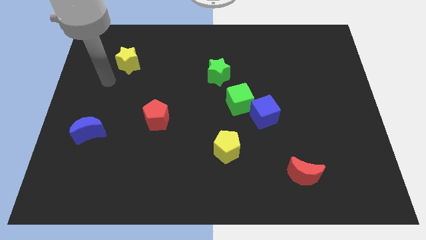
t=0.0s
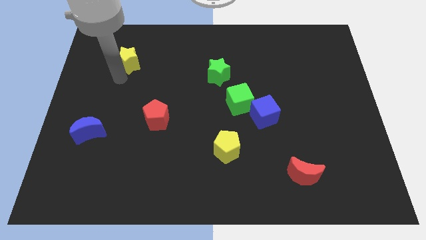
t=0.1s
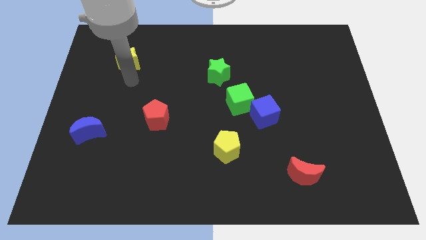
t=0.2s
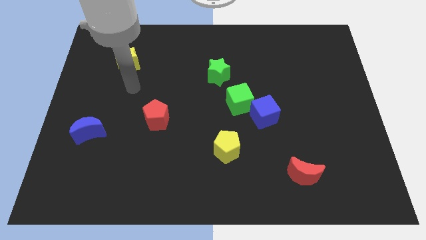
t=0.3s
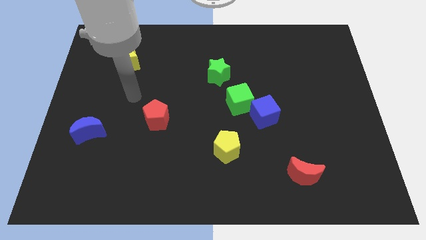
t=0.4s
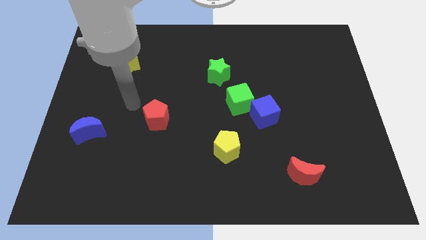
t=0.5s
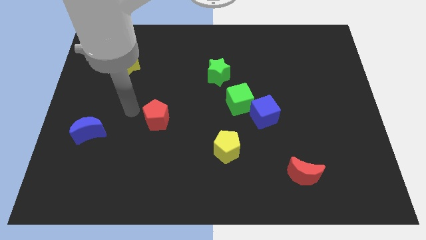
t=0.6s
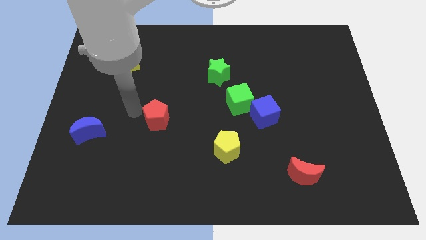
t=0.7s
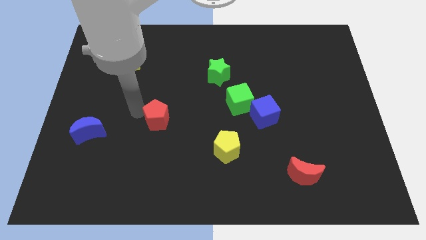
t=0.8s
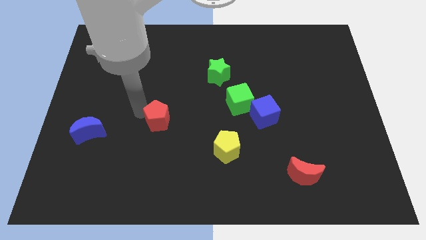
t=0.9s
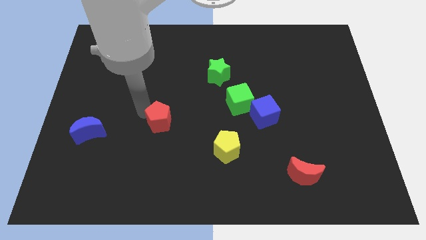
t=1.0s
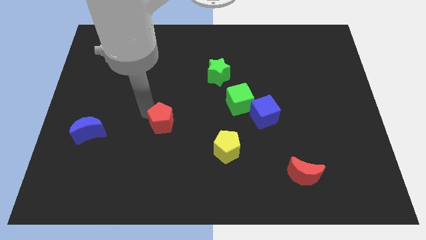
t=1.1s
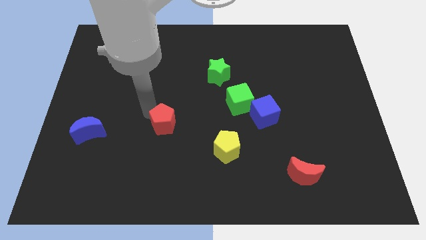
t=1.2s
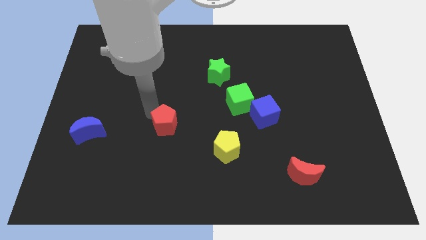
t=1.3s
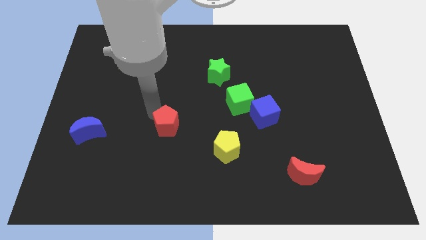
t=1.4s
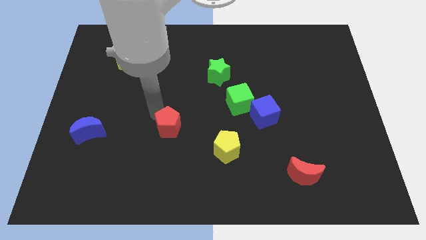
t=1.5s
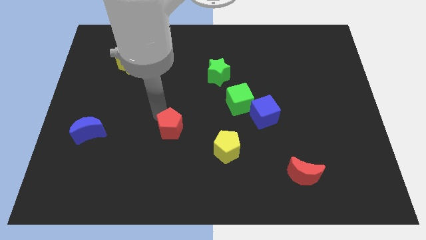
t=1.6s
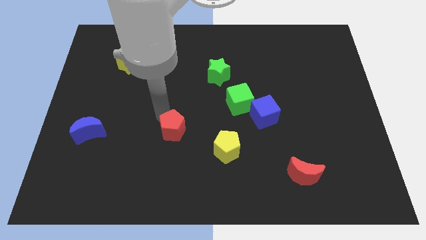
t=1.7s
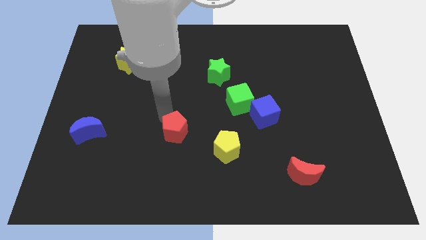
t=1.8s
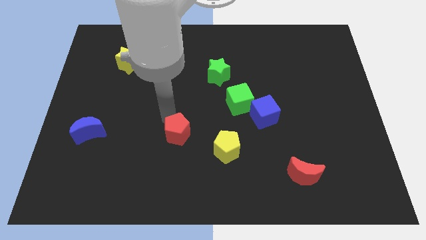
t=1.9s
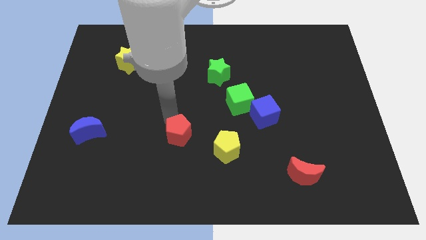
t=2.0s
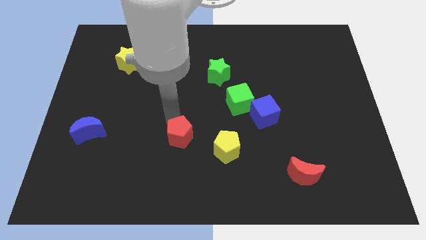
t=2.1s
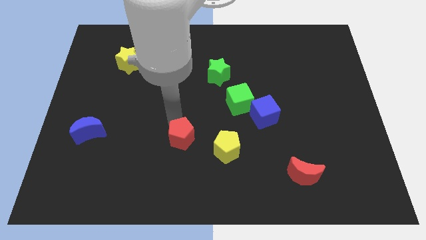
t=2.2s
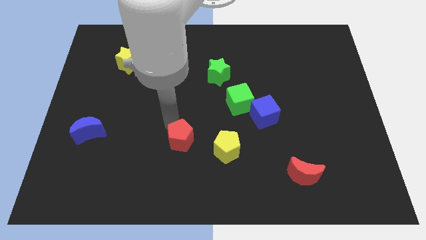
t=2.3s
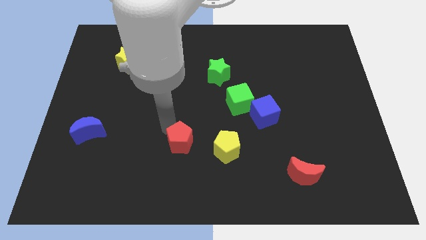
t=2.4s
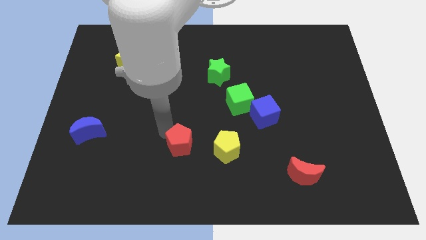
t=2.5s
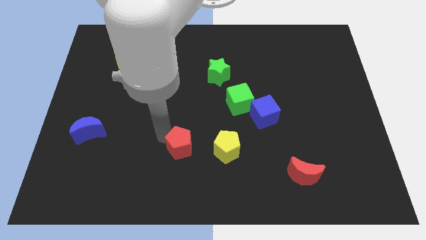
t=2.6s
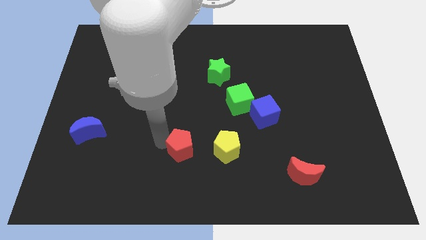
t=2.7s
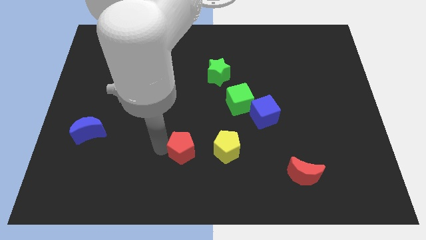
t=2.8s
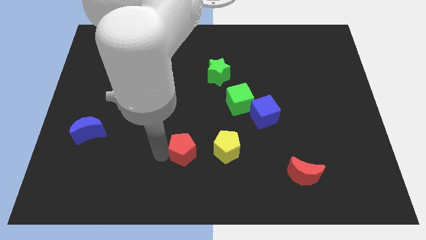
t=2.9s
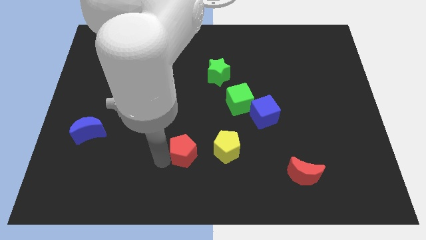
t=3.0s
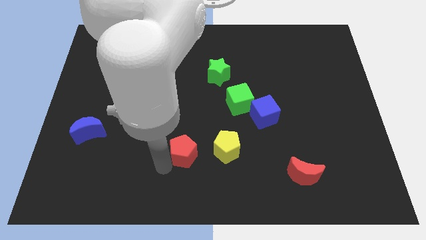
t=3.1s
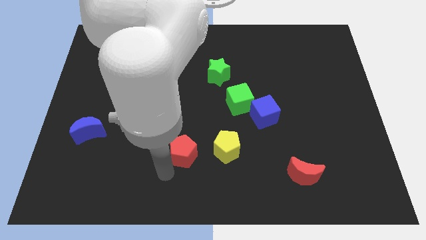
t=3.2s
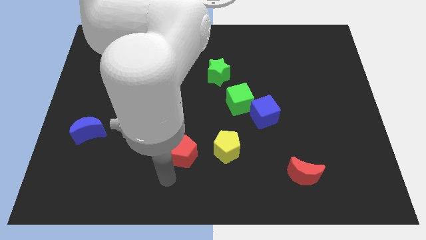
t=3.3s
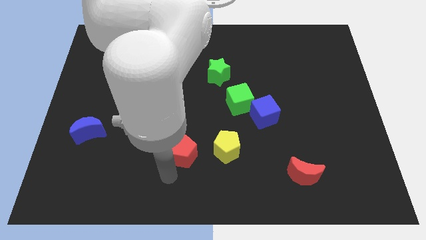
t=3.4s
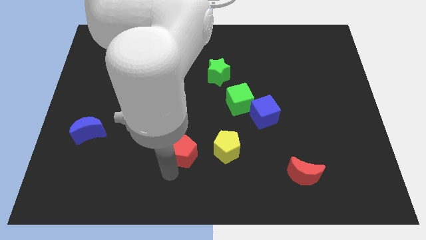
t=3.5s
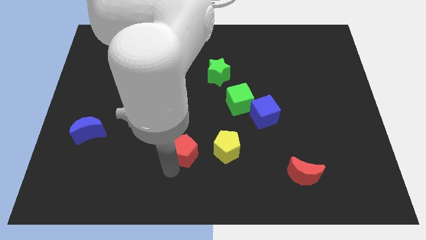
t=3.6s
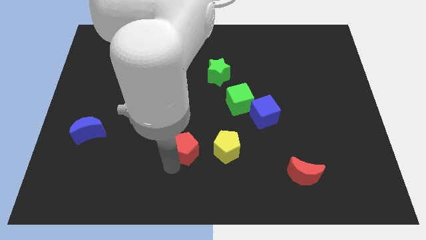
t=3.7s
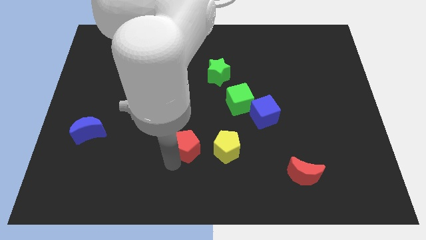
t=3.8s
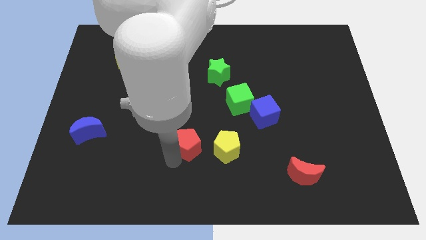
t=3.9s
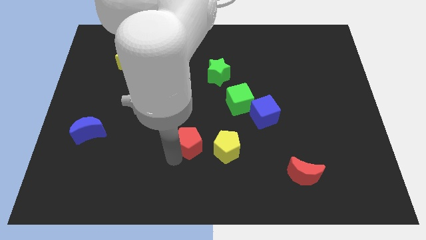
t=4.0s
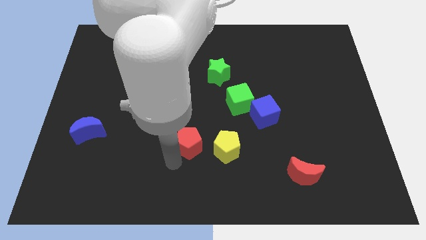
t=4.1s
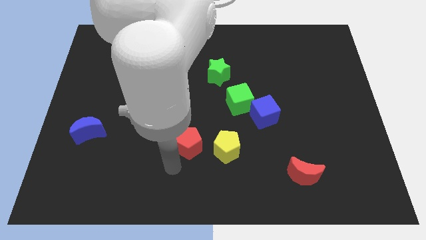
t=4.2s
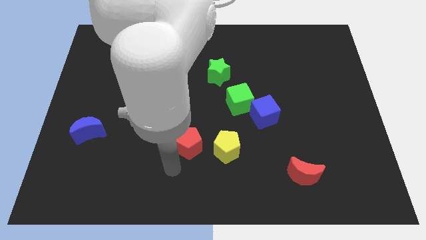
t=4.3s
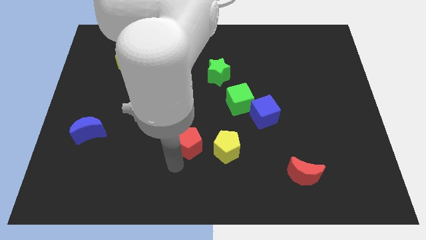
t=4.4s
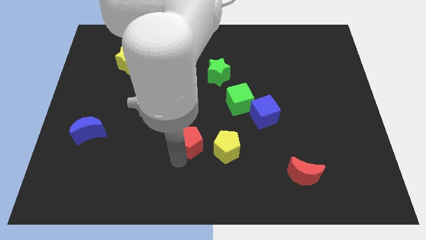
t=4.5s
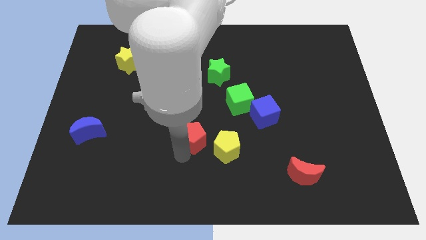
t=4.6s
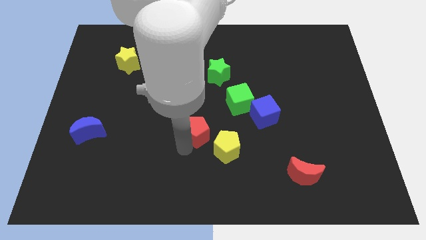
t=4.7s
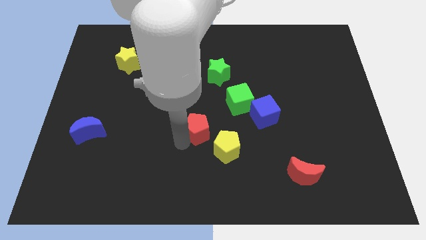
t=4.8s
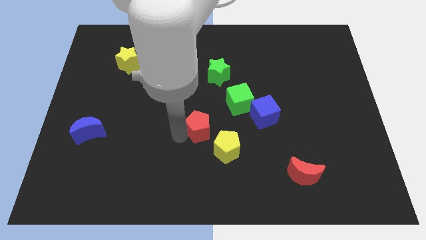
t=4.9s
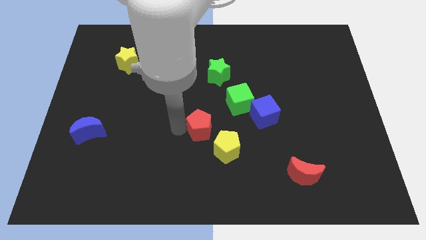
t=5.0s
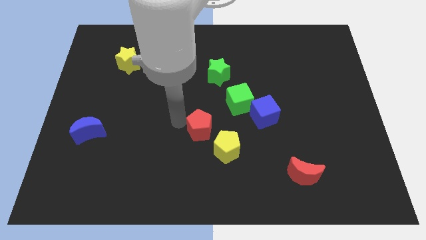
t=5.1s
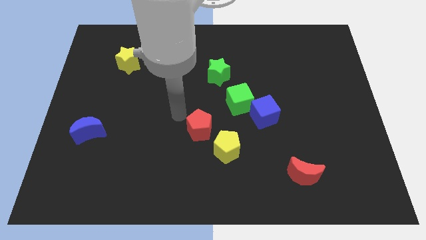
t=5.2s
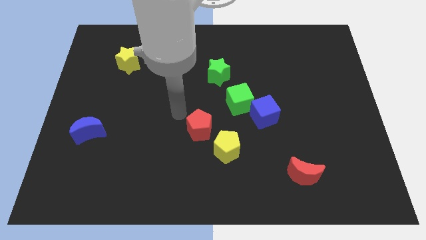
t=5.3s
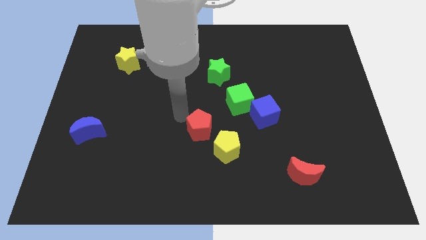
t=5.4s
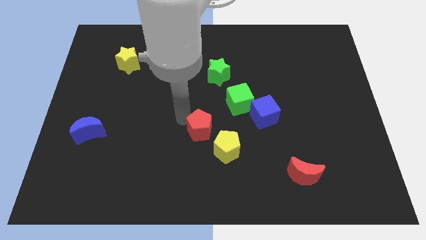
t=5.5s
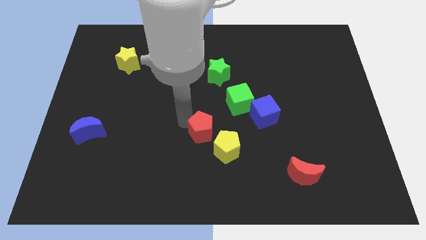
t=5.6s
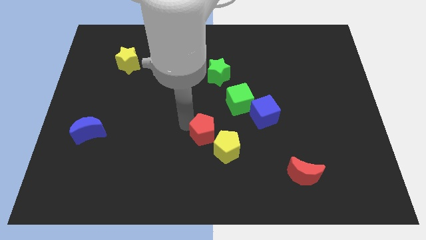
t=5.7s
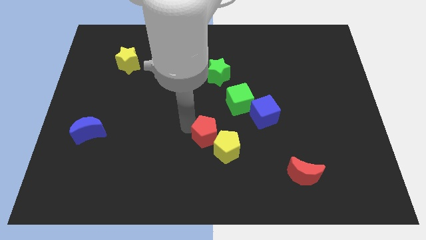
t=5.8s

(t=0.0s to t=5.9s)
push the red pentagon towards the yellow pentagon

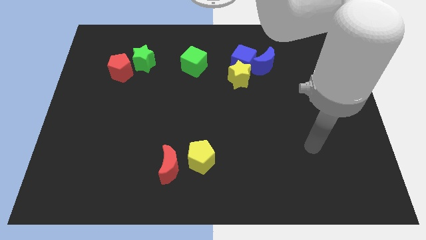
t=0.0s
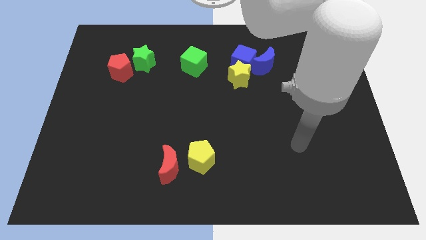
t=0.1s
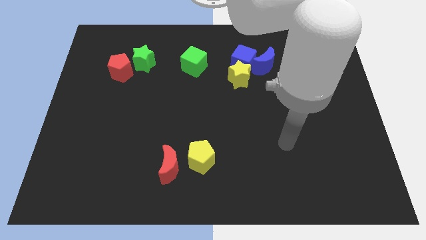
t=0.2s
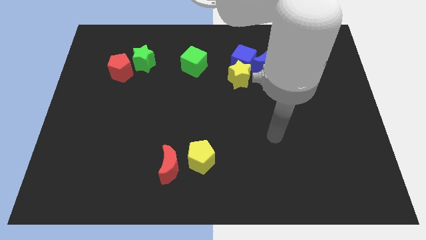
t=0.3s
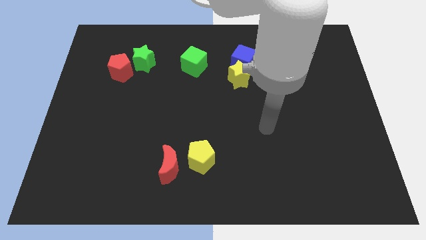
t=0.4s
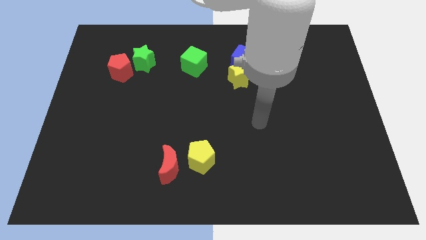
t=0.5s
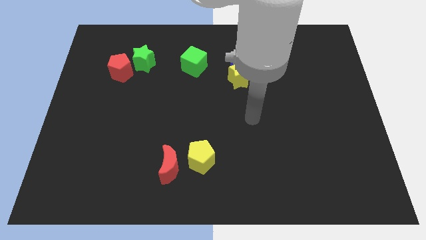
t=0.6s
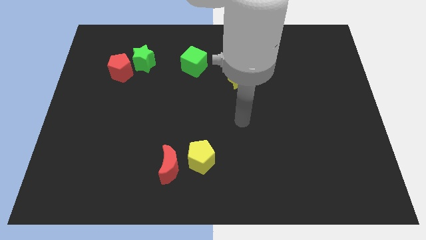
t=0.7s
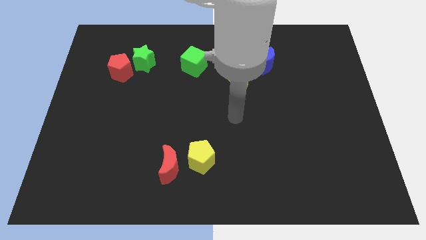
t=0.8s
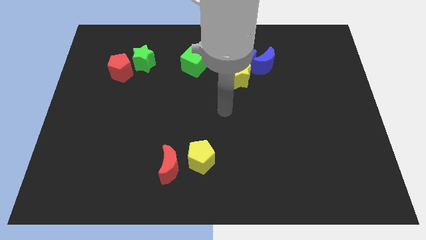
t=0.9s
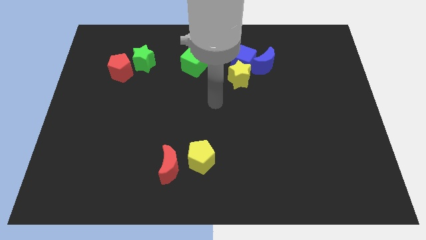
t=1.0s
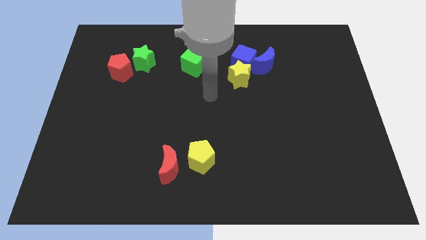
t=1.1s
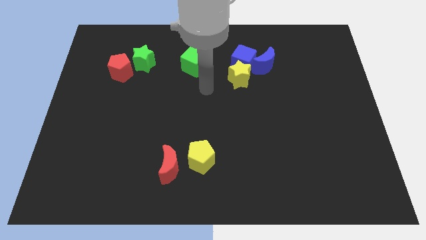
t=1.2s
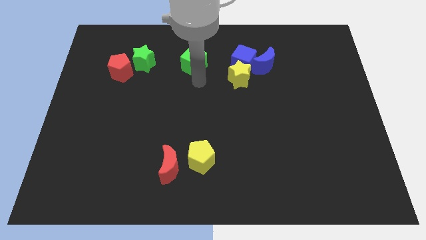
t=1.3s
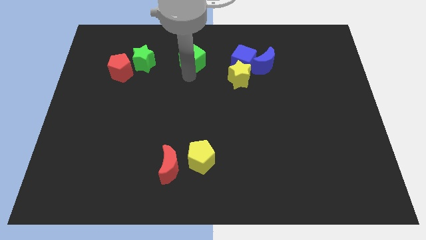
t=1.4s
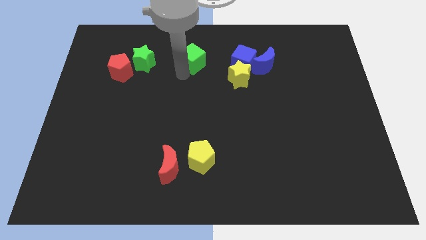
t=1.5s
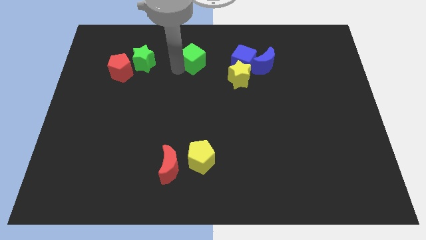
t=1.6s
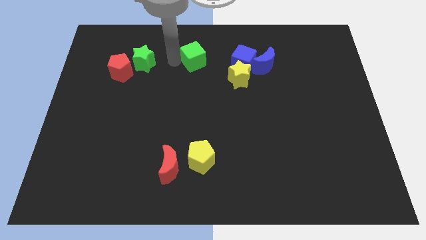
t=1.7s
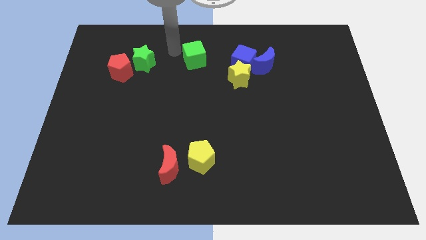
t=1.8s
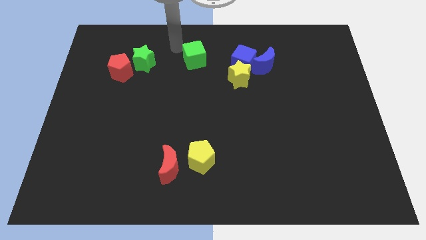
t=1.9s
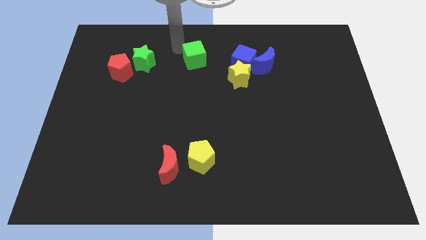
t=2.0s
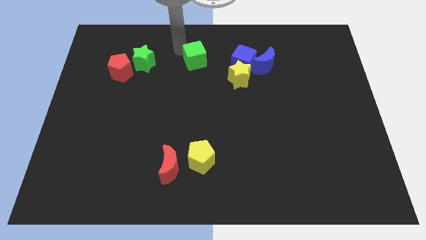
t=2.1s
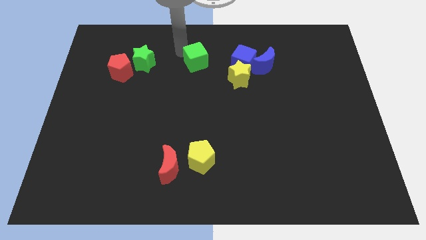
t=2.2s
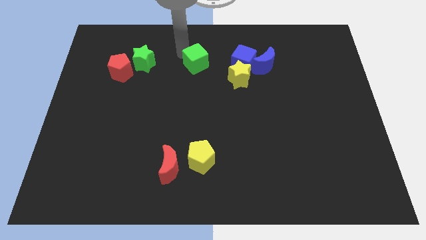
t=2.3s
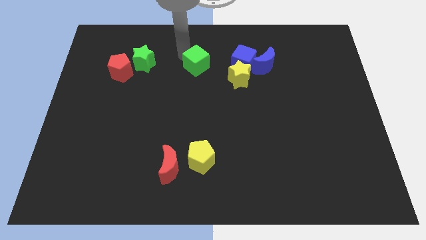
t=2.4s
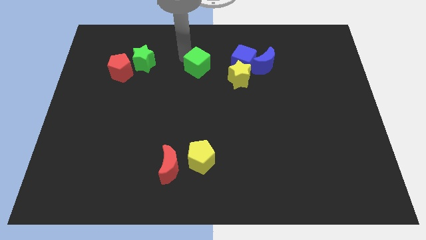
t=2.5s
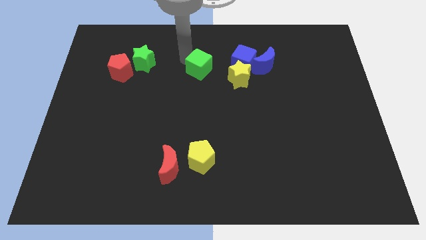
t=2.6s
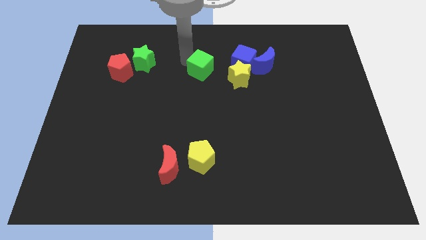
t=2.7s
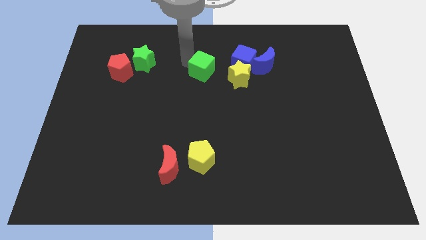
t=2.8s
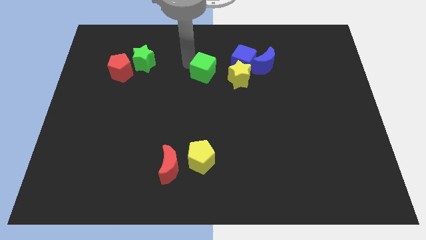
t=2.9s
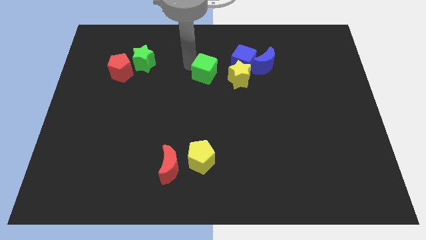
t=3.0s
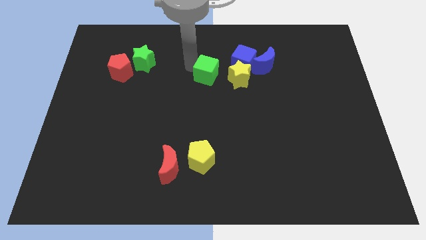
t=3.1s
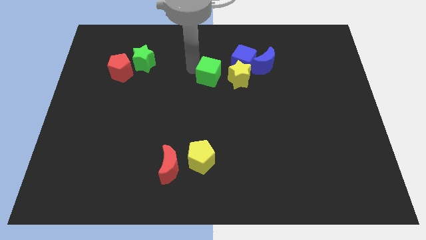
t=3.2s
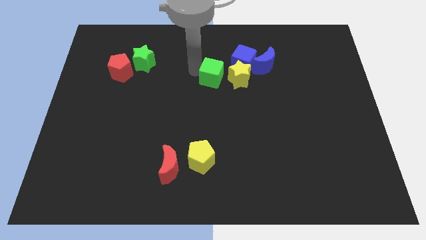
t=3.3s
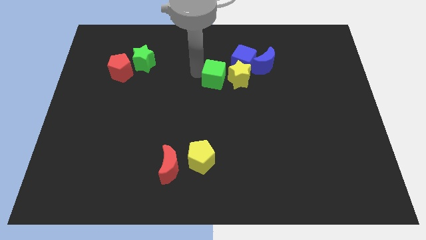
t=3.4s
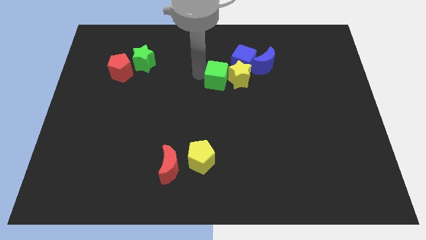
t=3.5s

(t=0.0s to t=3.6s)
move the green cube to the yellow star
